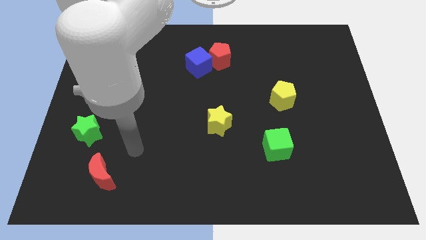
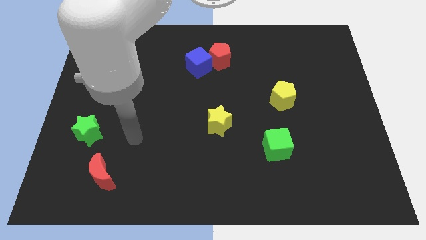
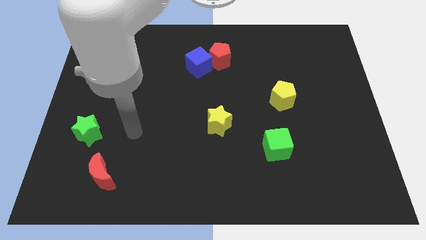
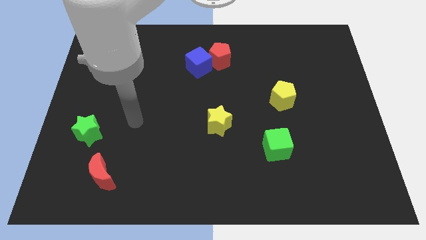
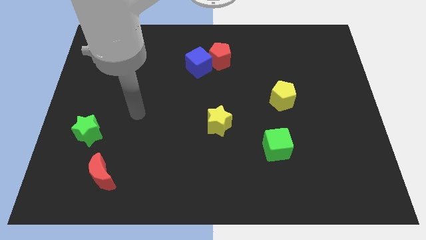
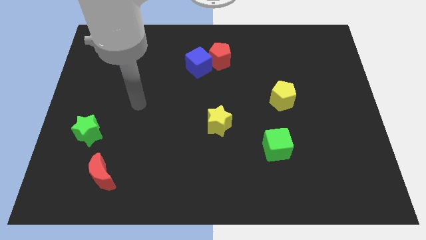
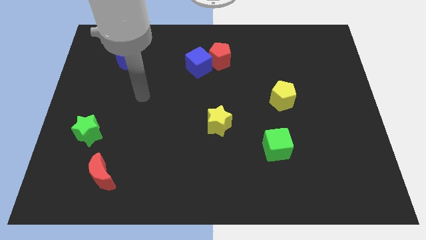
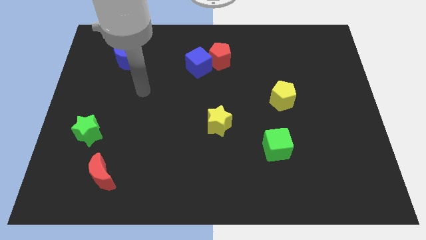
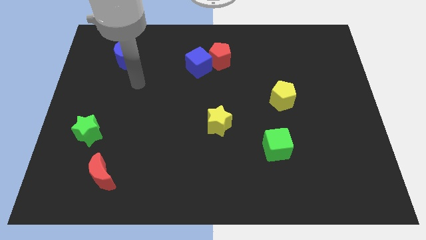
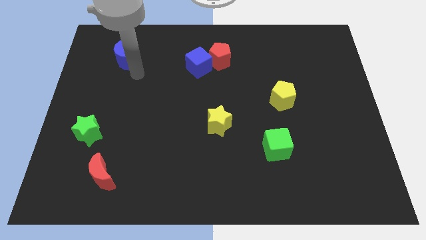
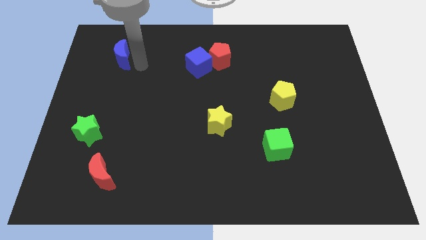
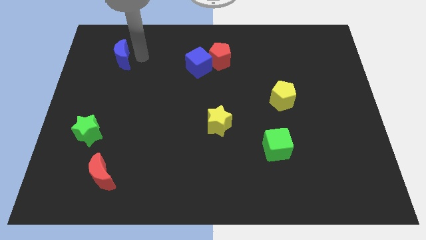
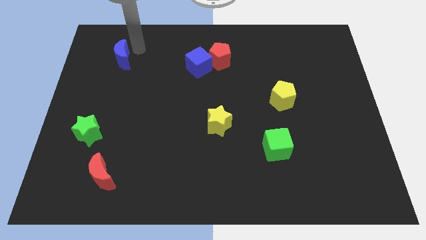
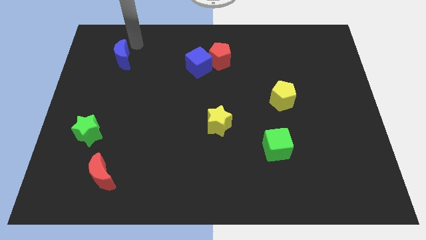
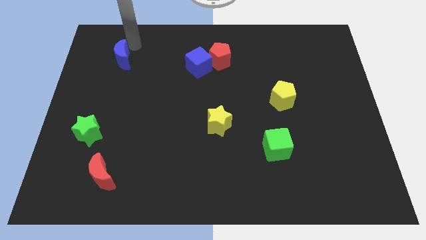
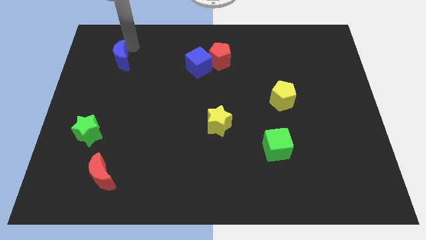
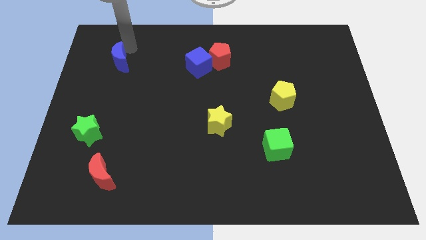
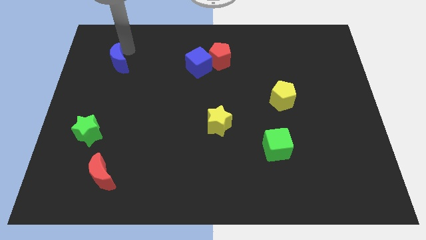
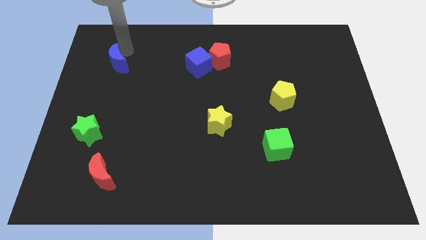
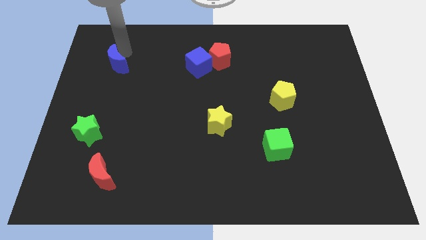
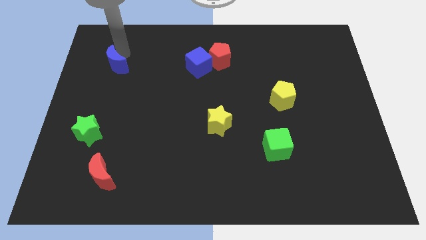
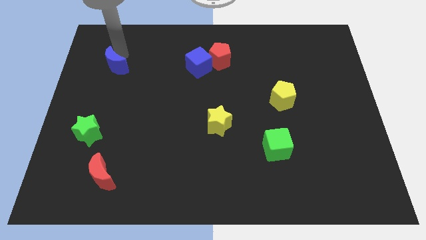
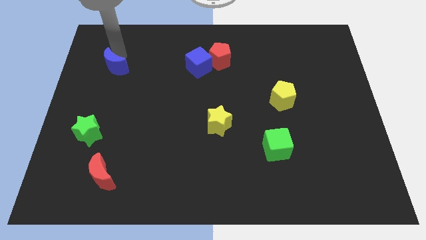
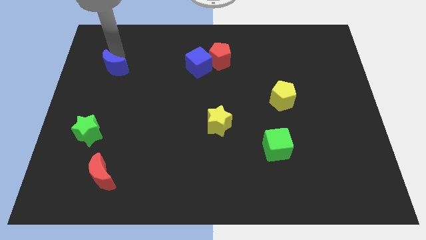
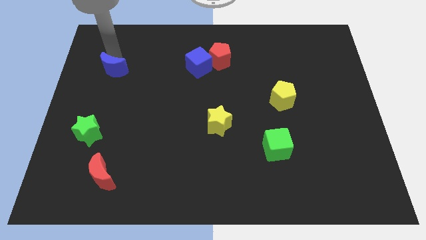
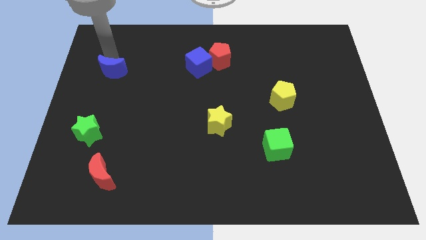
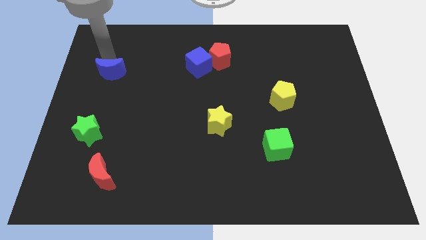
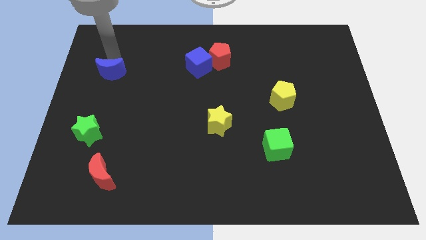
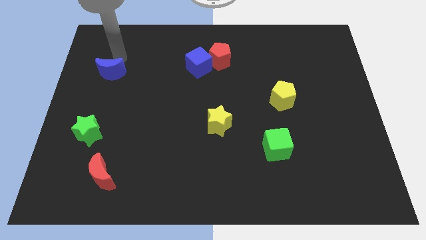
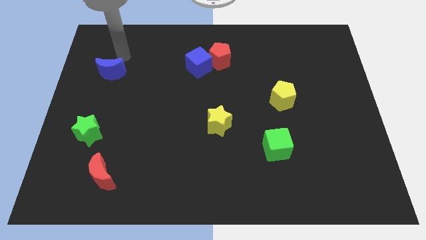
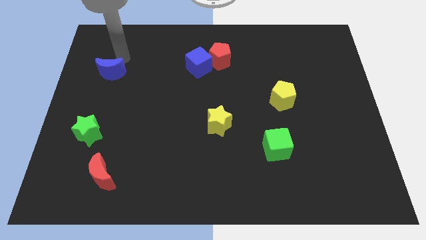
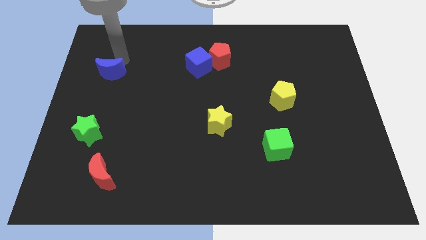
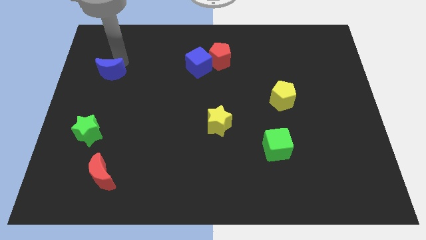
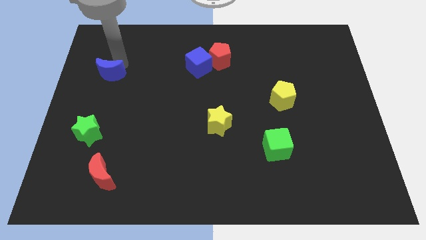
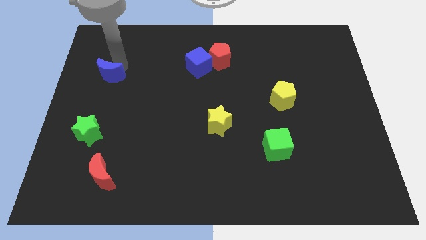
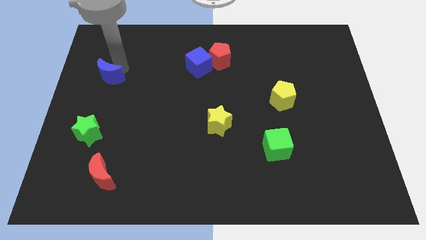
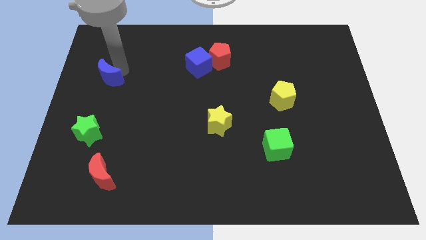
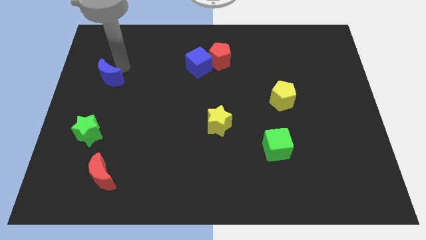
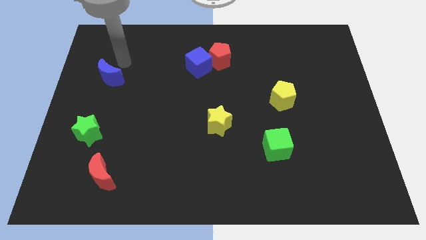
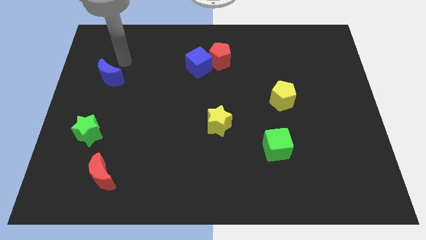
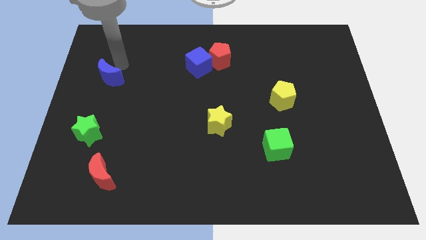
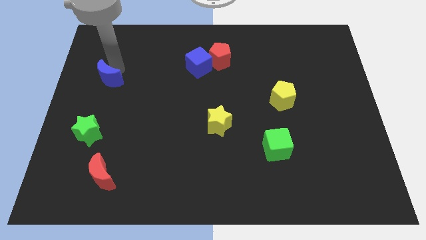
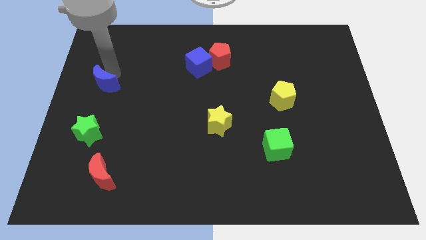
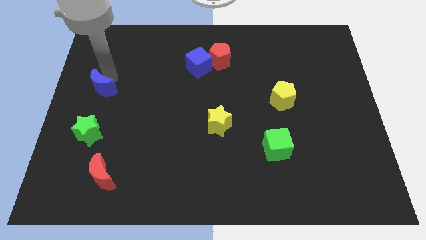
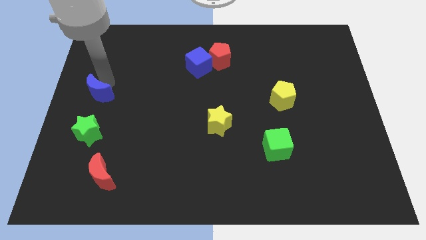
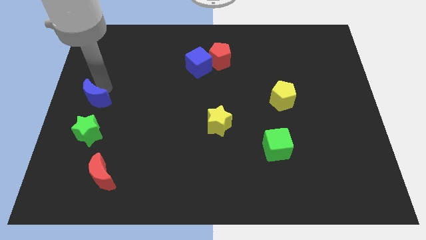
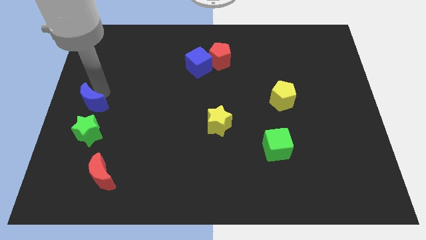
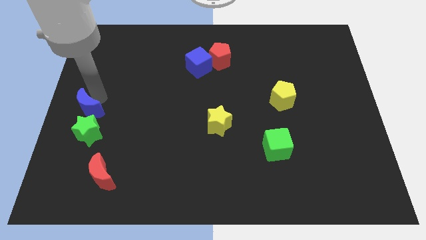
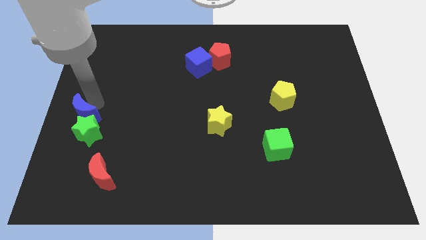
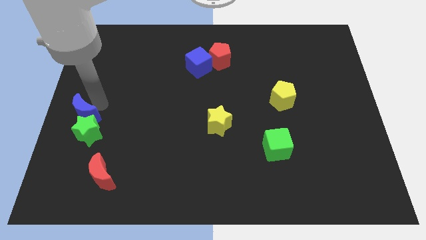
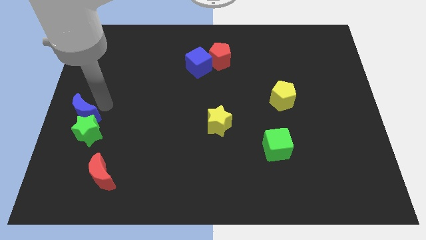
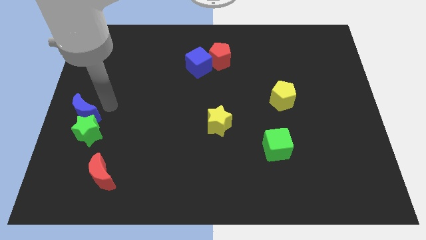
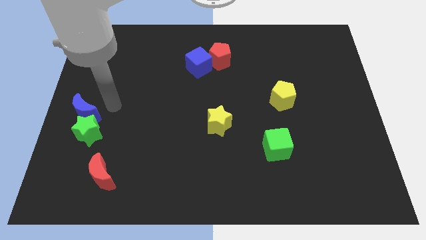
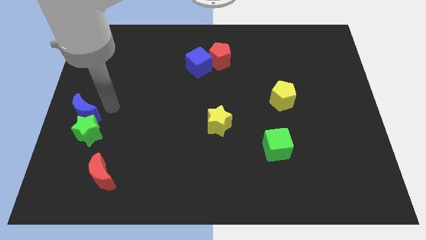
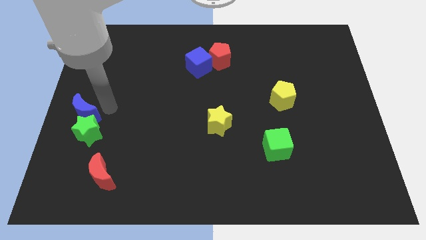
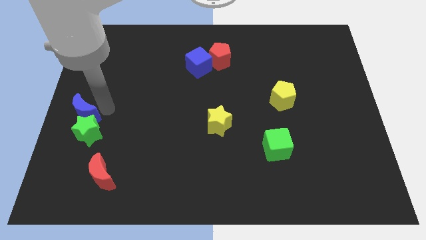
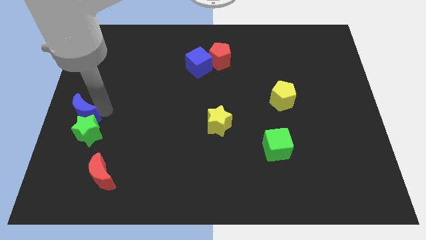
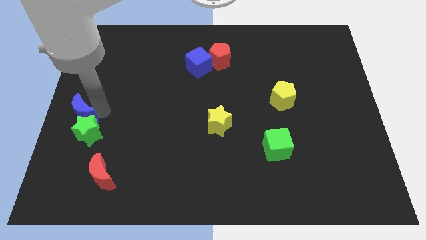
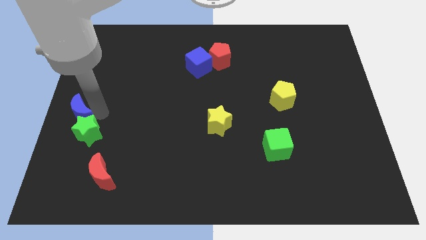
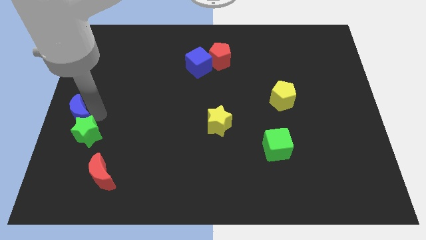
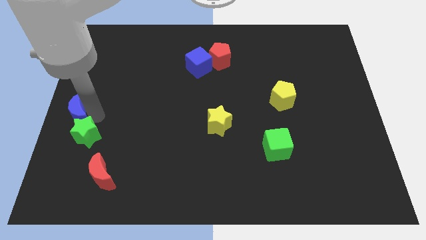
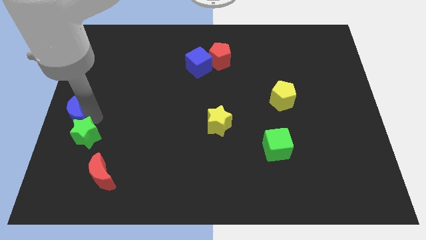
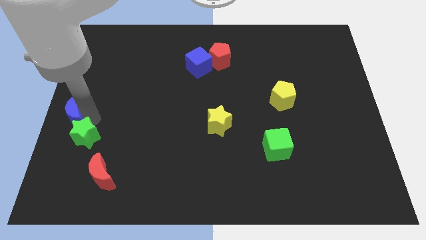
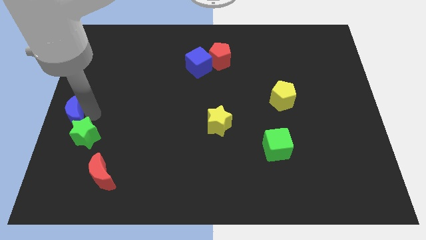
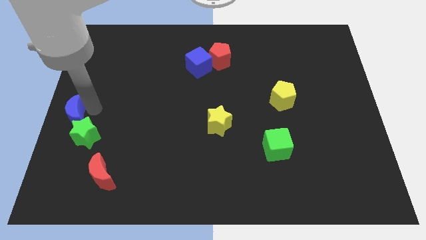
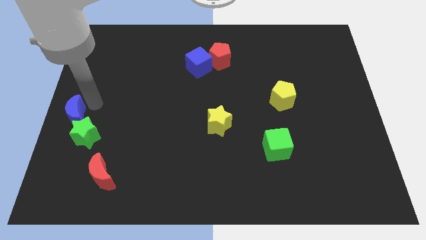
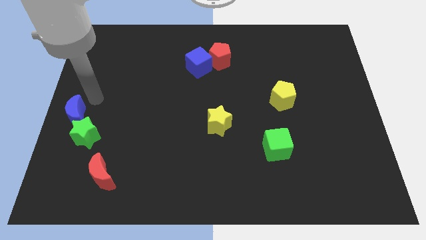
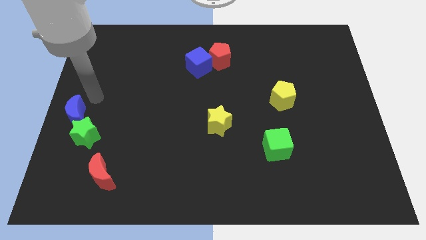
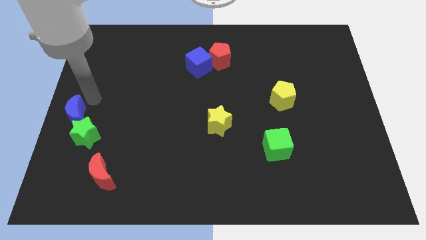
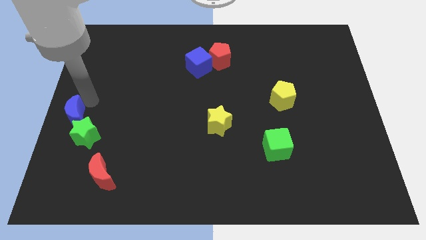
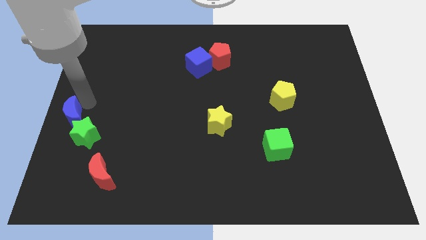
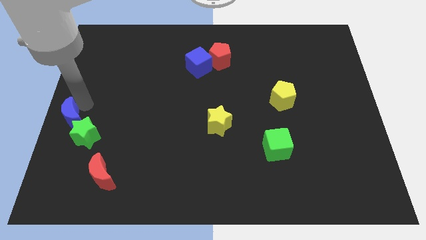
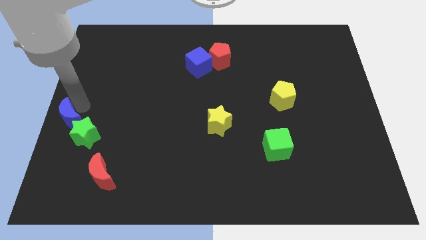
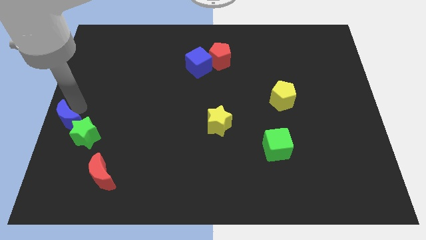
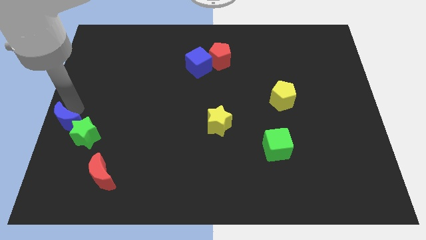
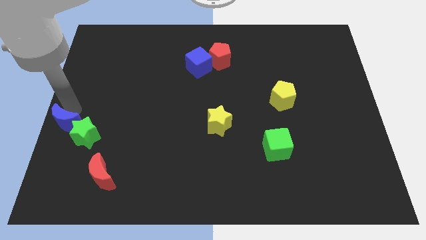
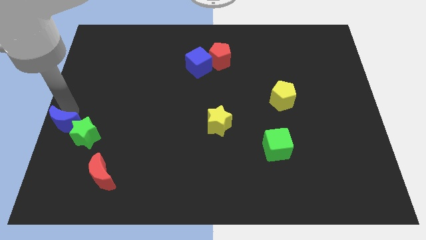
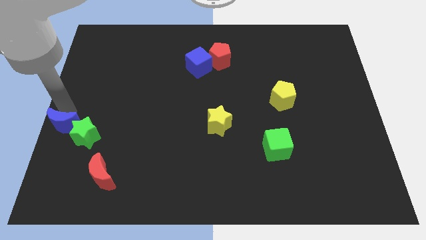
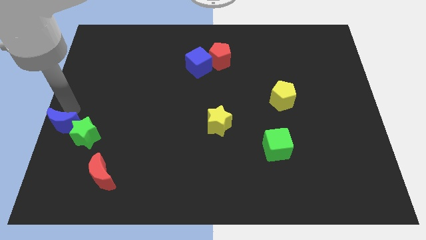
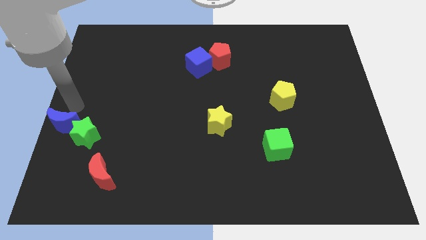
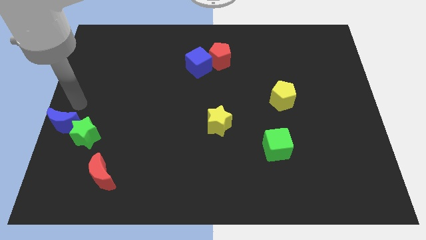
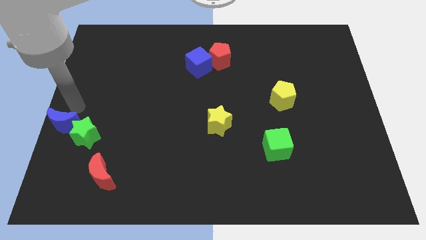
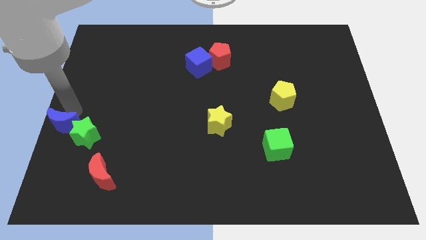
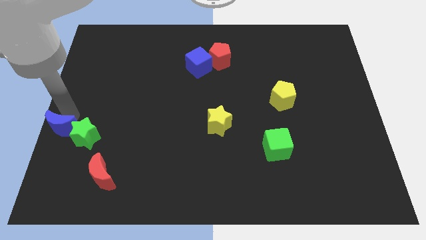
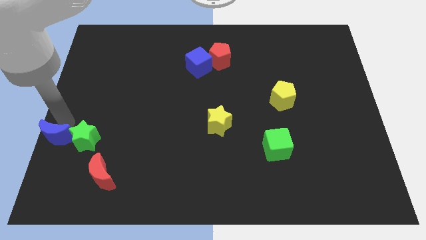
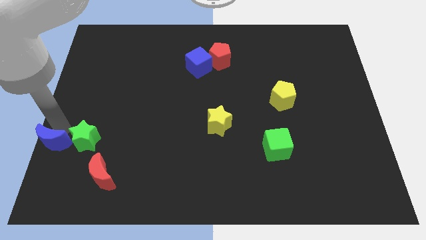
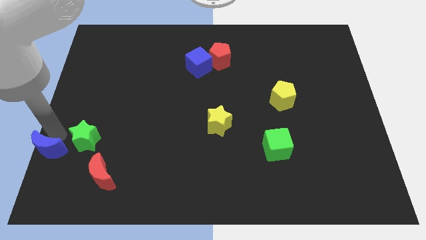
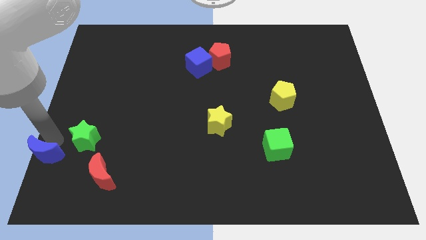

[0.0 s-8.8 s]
put the blue moon to the lower left corner
